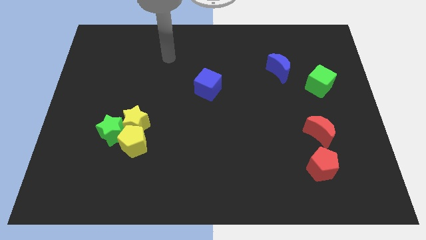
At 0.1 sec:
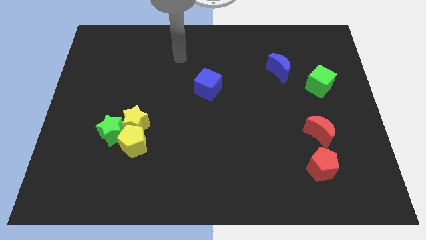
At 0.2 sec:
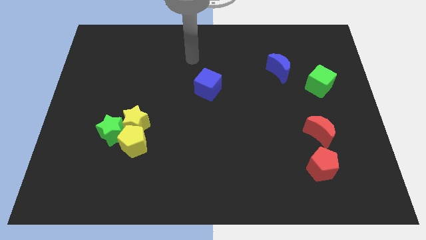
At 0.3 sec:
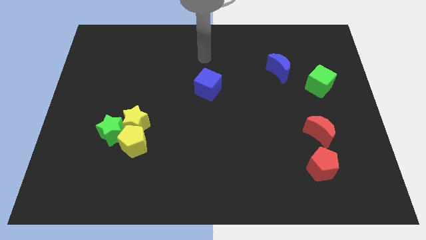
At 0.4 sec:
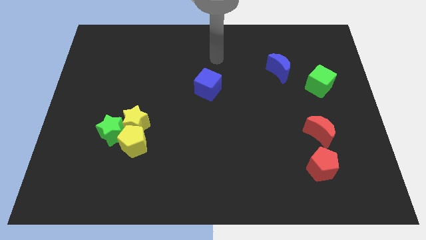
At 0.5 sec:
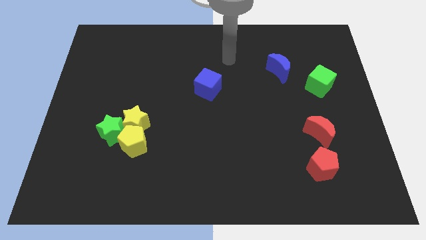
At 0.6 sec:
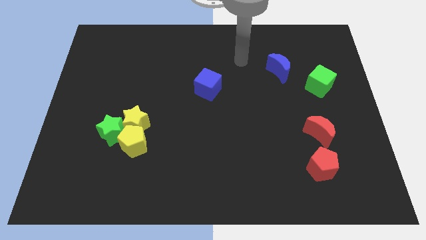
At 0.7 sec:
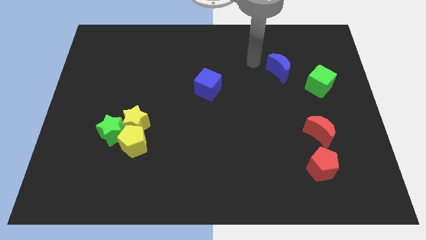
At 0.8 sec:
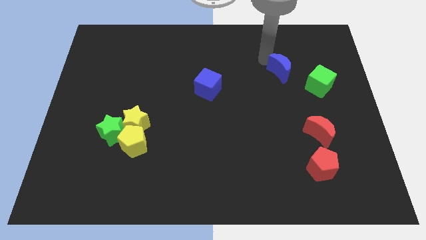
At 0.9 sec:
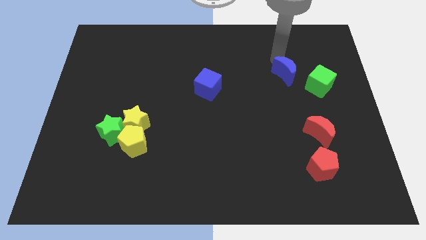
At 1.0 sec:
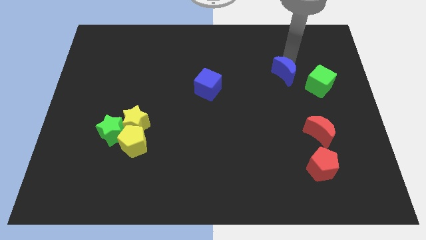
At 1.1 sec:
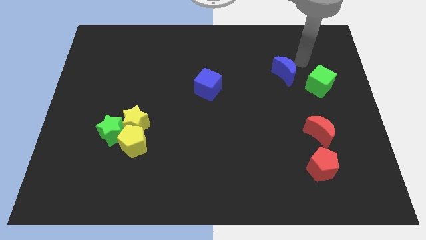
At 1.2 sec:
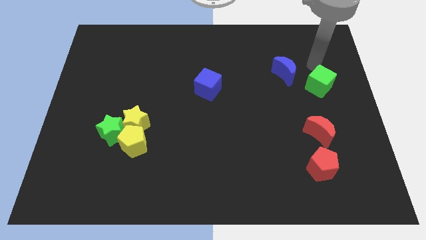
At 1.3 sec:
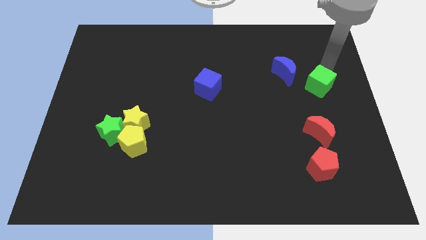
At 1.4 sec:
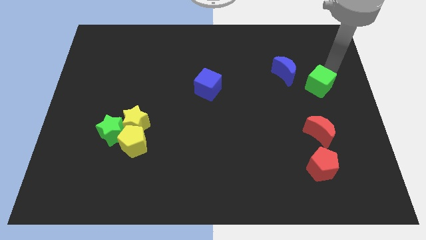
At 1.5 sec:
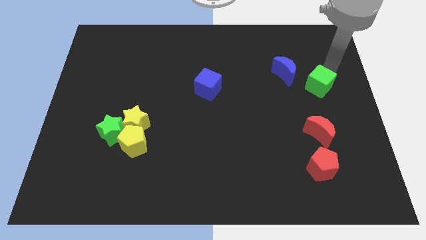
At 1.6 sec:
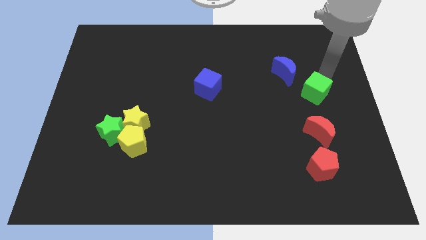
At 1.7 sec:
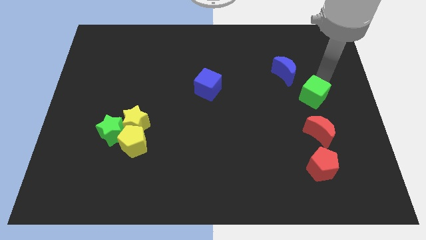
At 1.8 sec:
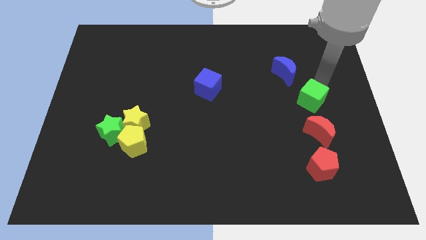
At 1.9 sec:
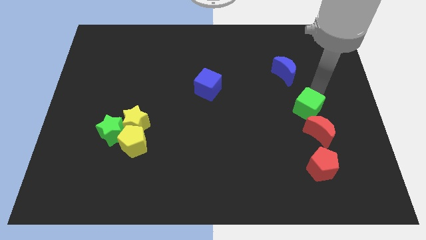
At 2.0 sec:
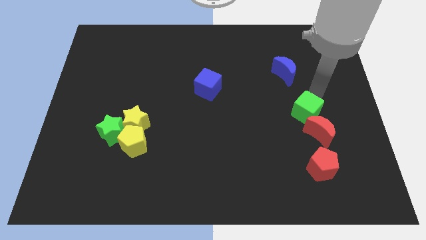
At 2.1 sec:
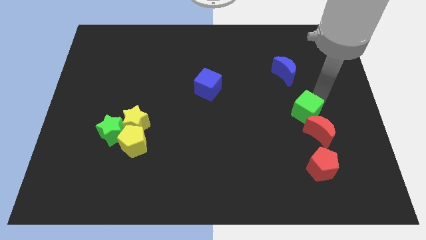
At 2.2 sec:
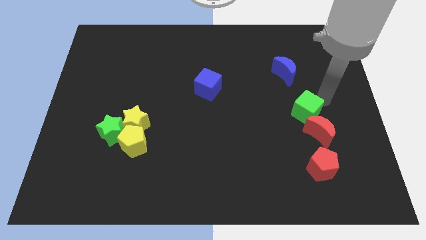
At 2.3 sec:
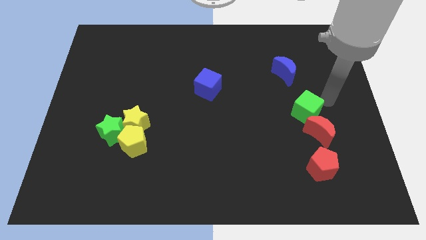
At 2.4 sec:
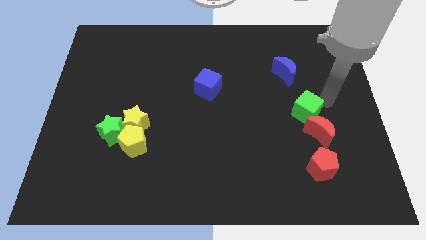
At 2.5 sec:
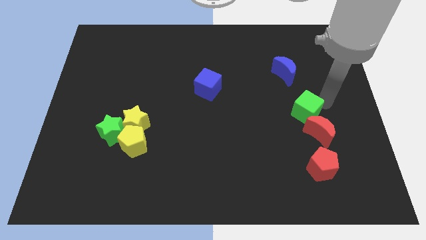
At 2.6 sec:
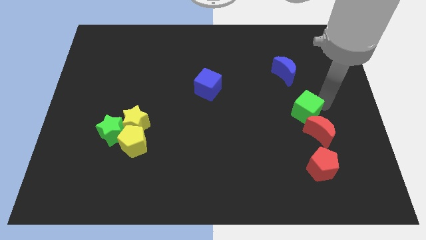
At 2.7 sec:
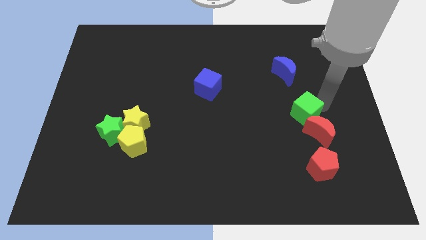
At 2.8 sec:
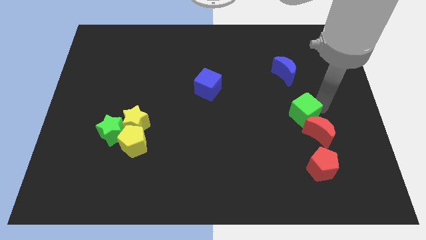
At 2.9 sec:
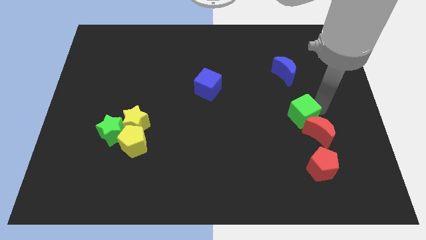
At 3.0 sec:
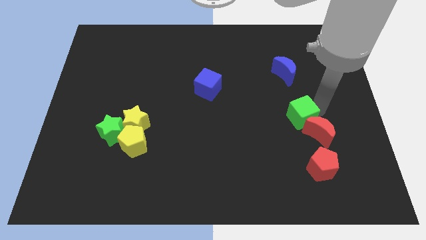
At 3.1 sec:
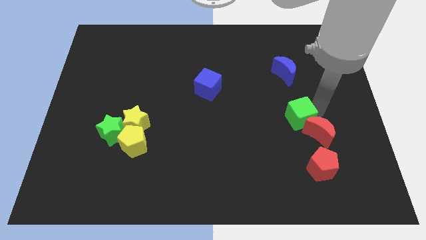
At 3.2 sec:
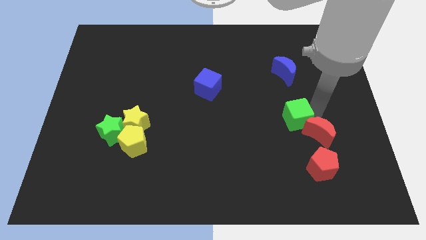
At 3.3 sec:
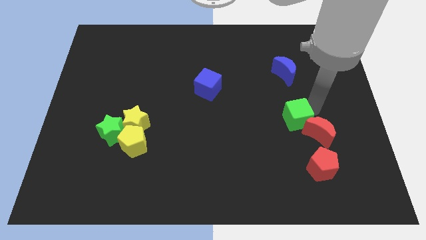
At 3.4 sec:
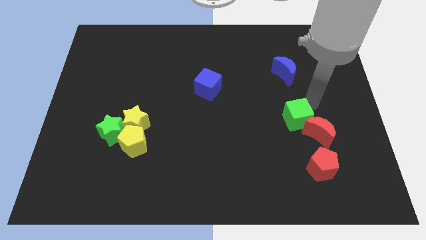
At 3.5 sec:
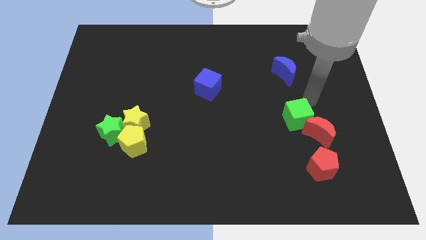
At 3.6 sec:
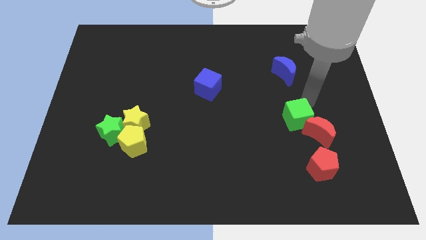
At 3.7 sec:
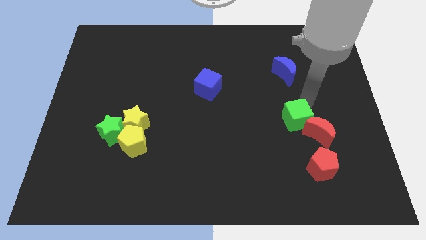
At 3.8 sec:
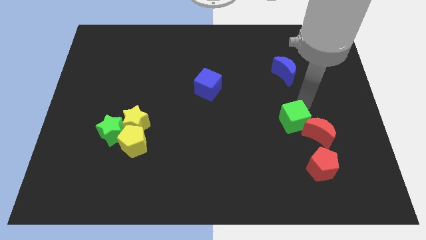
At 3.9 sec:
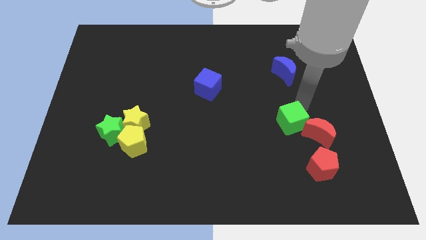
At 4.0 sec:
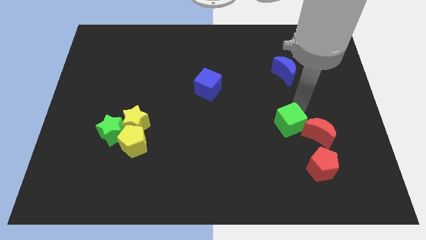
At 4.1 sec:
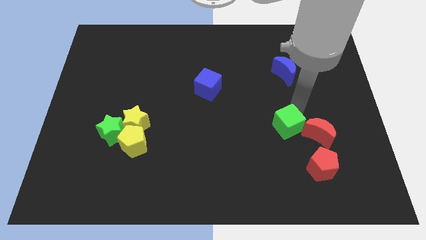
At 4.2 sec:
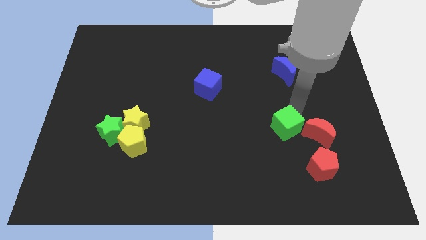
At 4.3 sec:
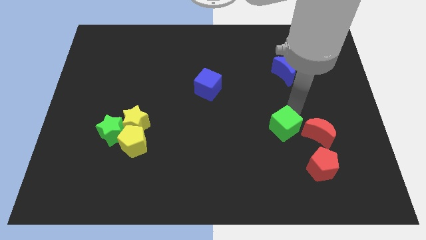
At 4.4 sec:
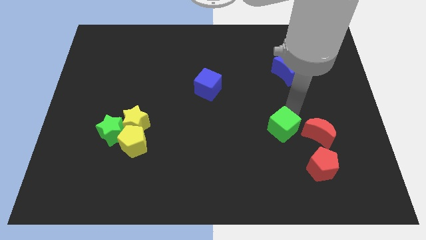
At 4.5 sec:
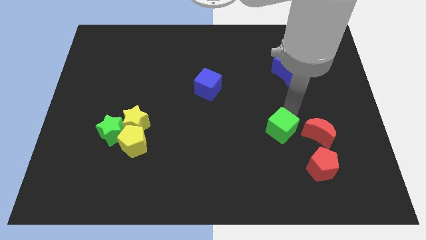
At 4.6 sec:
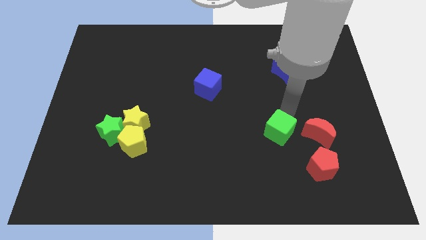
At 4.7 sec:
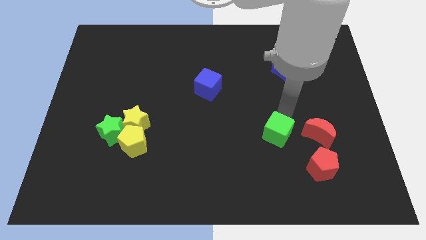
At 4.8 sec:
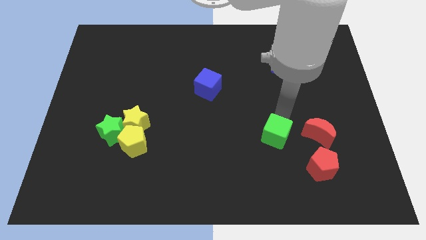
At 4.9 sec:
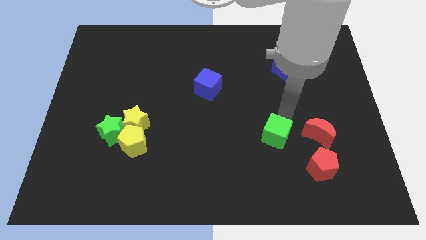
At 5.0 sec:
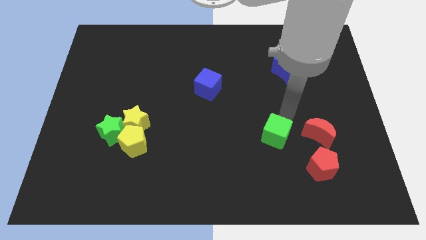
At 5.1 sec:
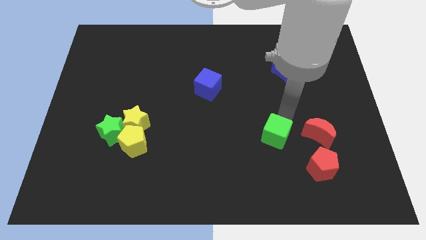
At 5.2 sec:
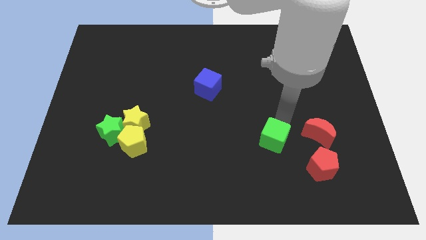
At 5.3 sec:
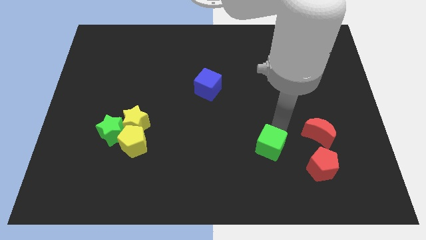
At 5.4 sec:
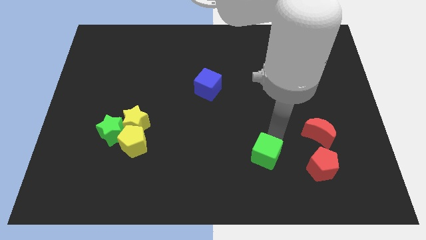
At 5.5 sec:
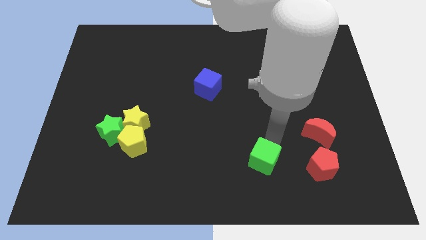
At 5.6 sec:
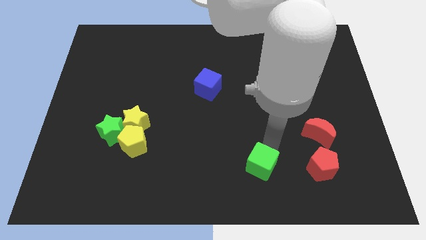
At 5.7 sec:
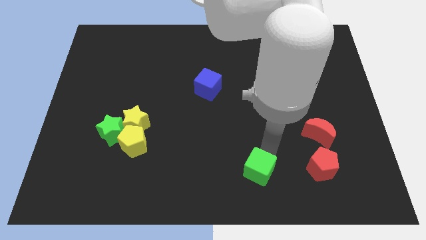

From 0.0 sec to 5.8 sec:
push the green cube to the bottom side
